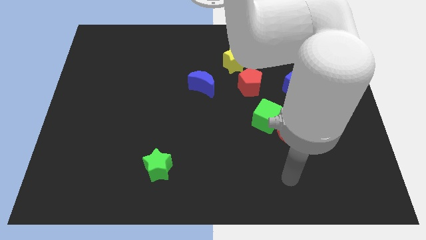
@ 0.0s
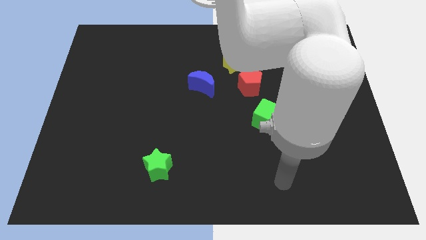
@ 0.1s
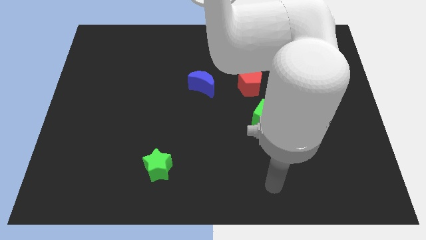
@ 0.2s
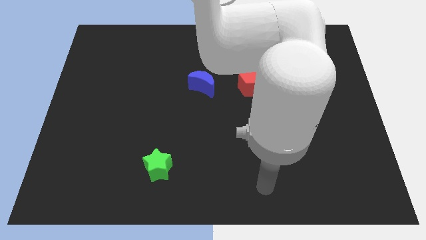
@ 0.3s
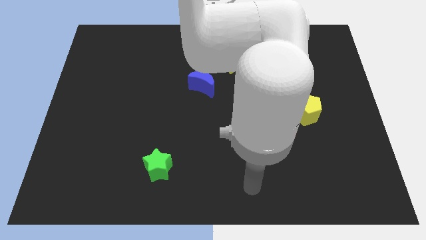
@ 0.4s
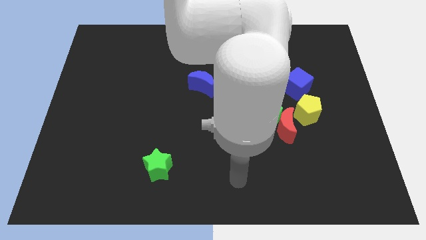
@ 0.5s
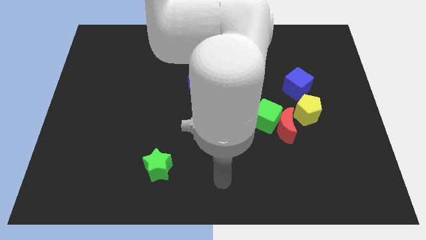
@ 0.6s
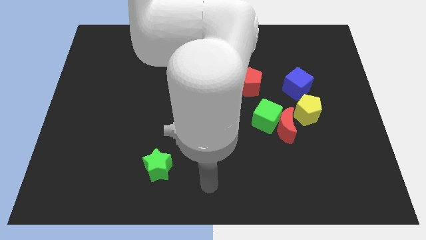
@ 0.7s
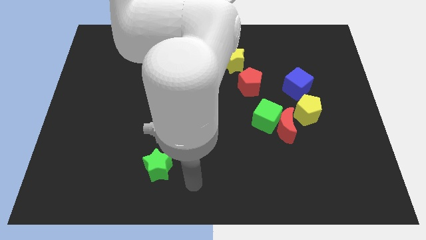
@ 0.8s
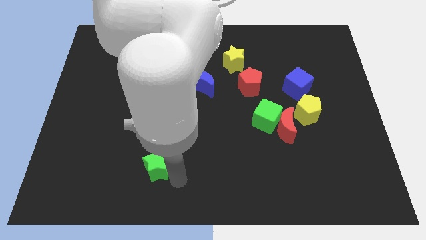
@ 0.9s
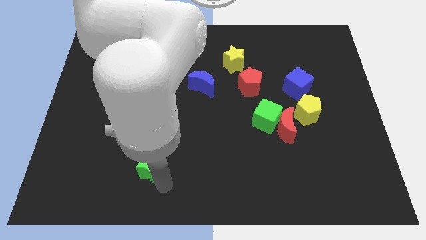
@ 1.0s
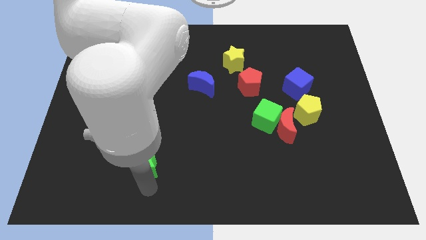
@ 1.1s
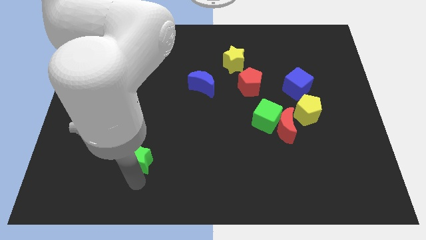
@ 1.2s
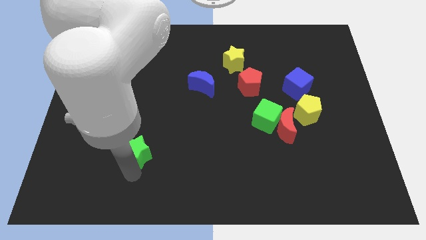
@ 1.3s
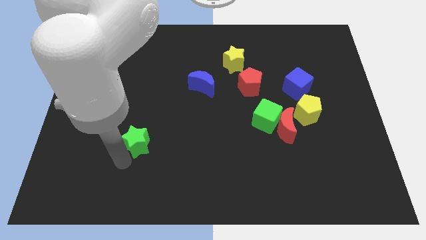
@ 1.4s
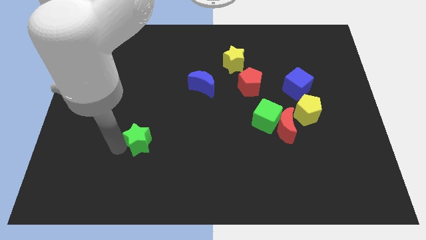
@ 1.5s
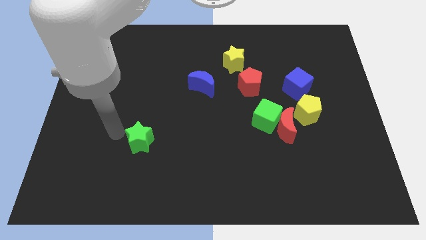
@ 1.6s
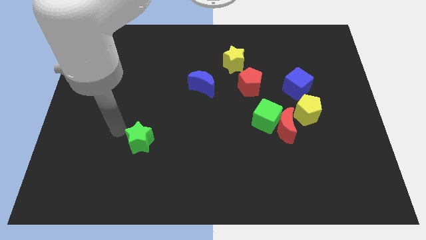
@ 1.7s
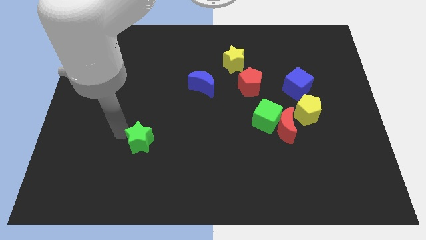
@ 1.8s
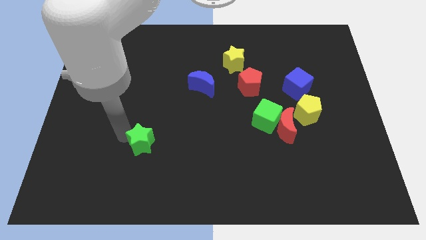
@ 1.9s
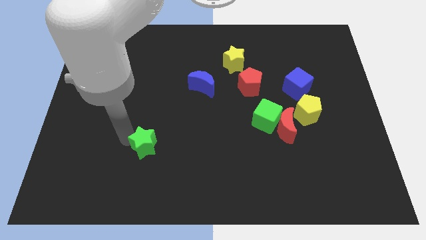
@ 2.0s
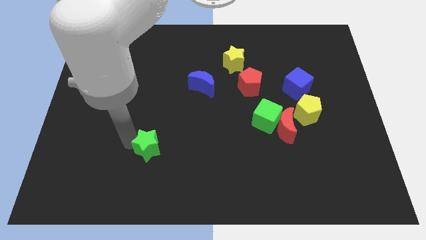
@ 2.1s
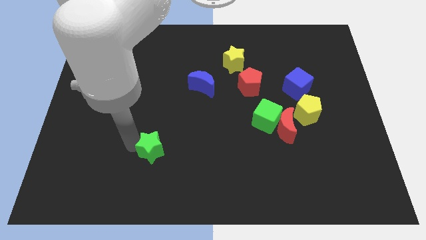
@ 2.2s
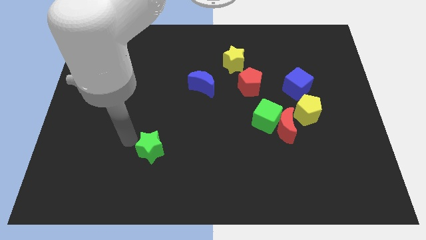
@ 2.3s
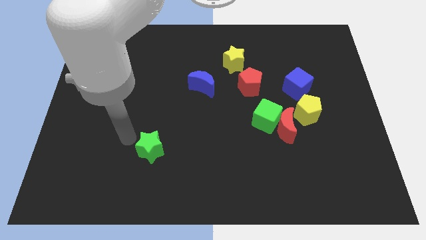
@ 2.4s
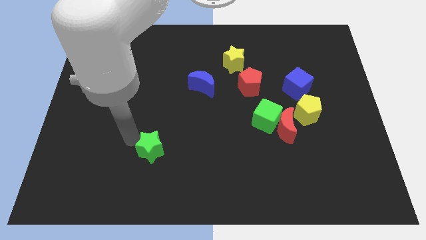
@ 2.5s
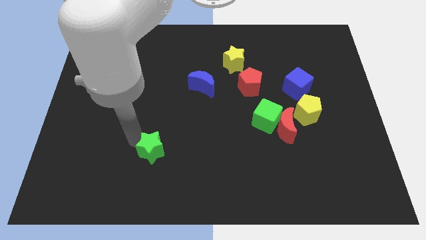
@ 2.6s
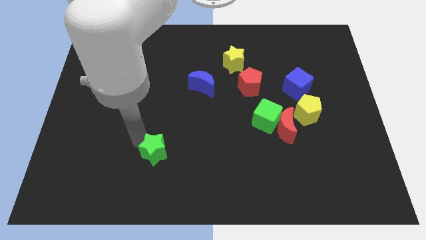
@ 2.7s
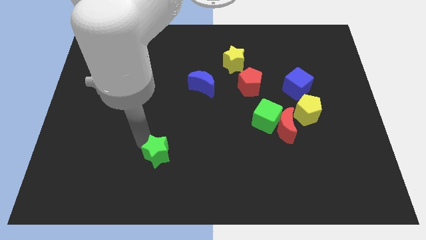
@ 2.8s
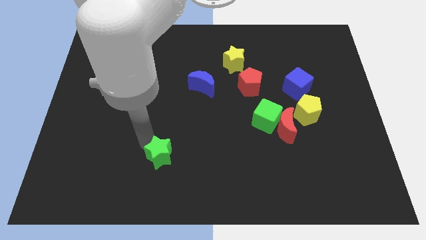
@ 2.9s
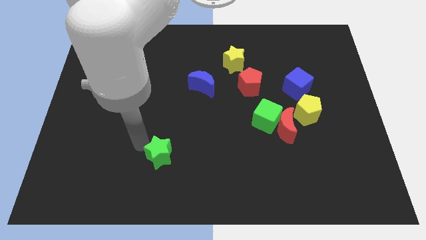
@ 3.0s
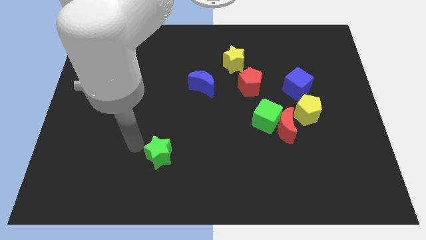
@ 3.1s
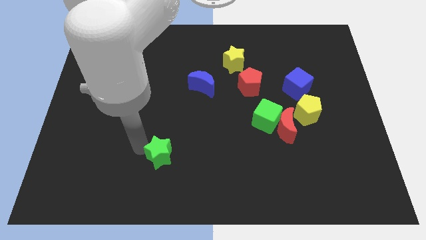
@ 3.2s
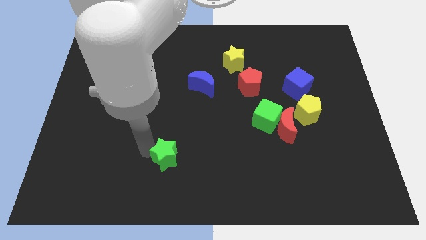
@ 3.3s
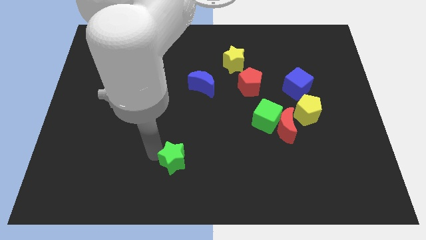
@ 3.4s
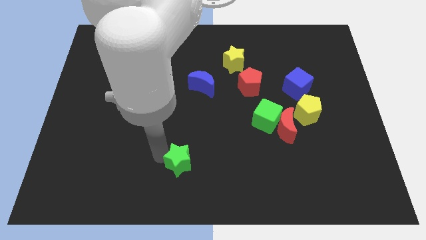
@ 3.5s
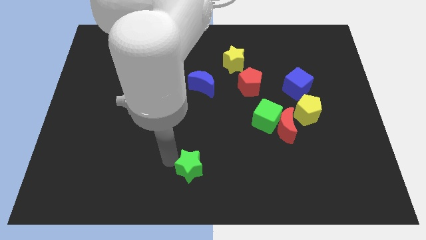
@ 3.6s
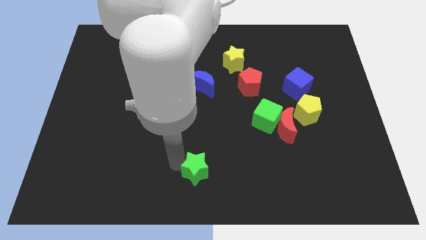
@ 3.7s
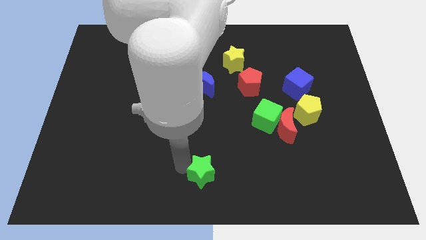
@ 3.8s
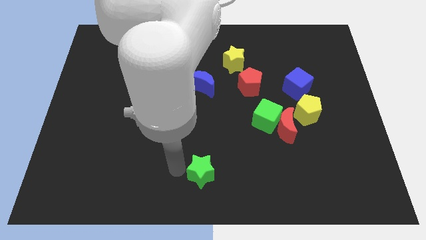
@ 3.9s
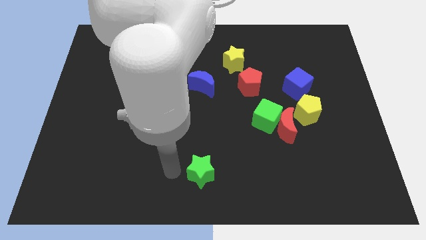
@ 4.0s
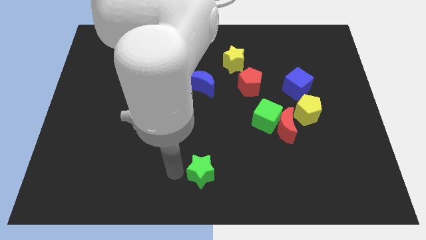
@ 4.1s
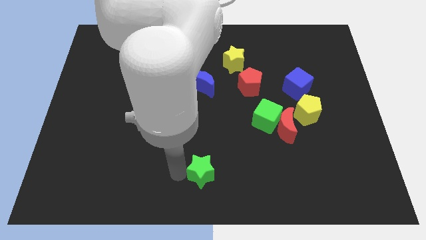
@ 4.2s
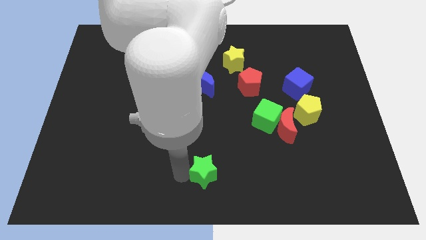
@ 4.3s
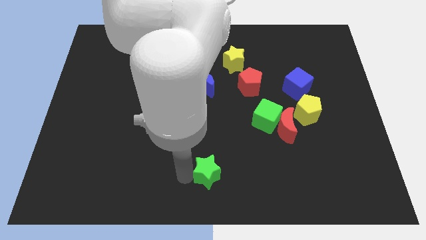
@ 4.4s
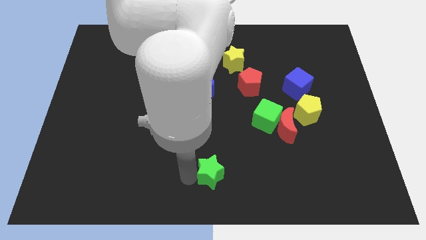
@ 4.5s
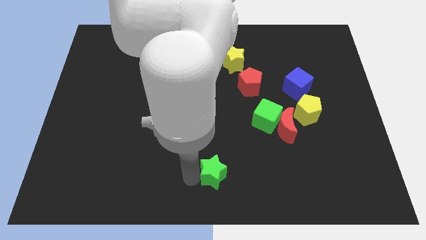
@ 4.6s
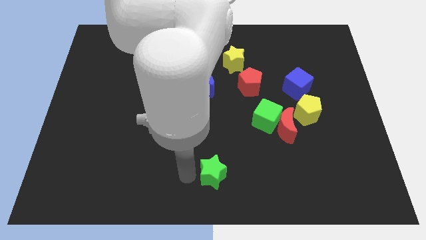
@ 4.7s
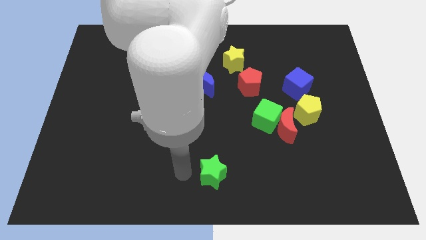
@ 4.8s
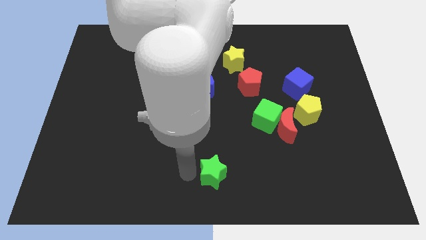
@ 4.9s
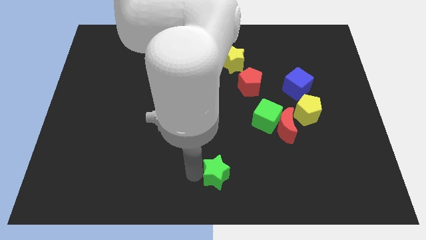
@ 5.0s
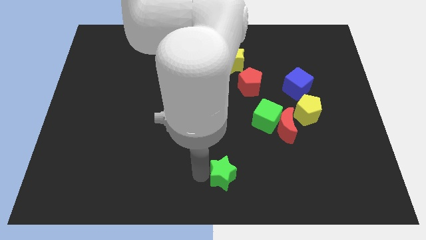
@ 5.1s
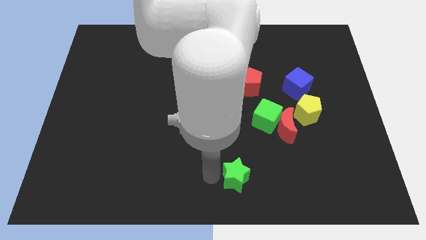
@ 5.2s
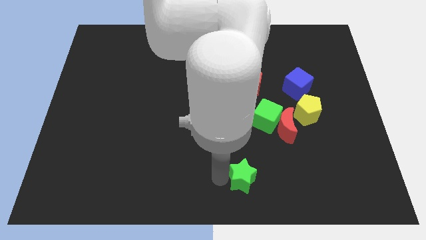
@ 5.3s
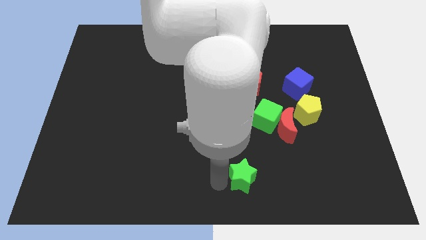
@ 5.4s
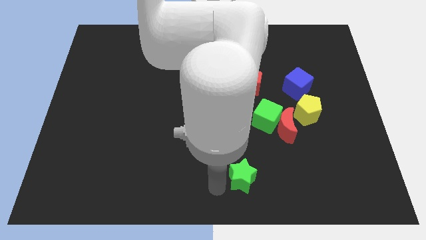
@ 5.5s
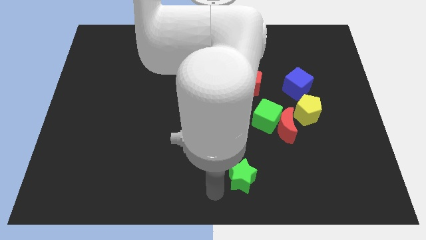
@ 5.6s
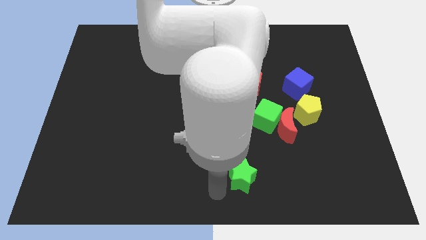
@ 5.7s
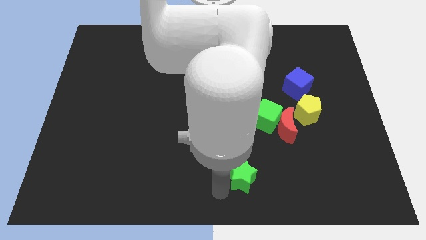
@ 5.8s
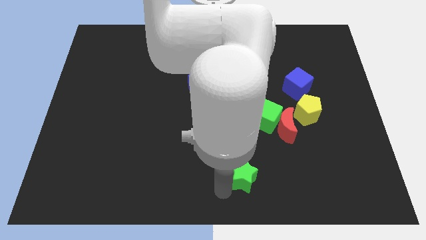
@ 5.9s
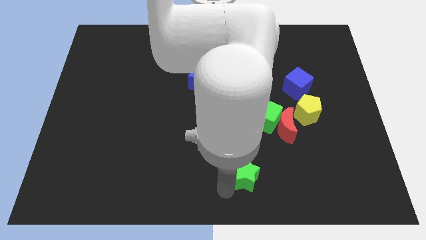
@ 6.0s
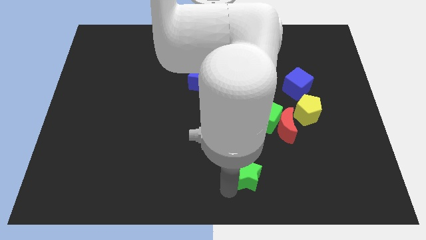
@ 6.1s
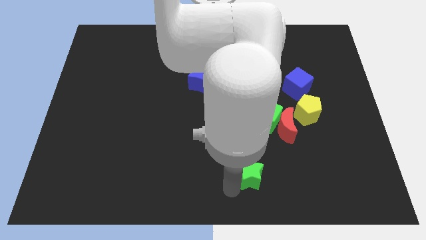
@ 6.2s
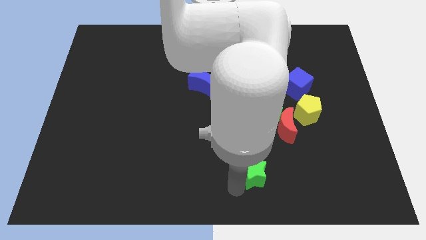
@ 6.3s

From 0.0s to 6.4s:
slide the green star right

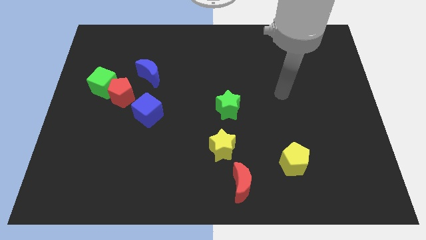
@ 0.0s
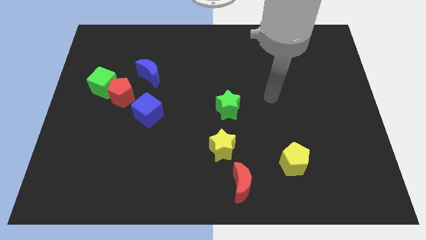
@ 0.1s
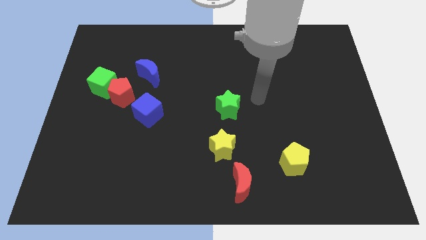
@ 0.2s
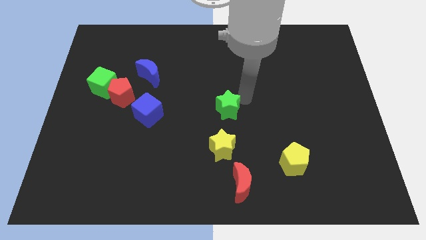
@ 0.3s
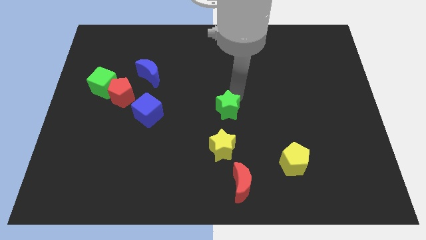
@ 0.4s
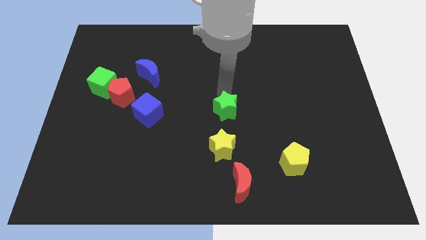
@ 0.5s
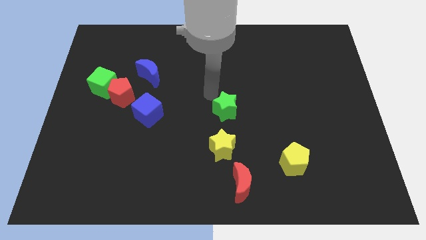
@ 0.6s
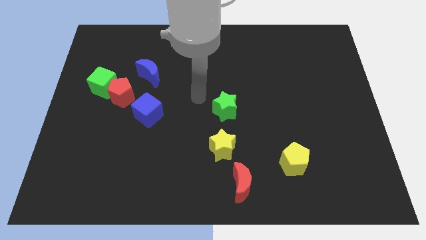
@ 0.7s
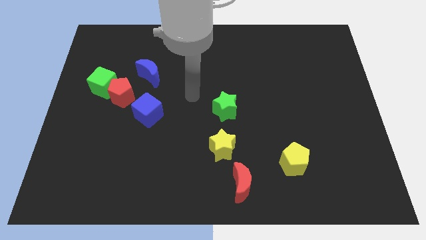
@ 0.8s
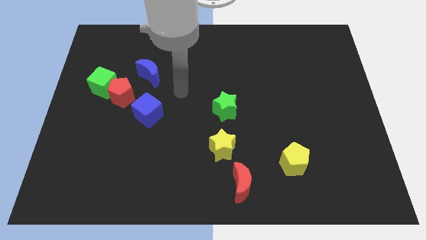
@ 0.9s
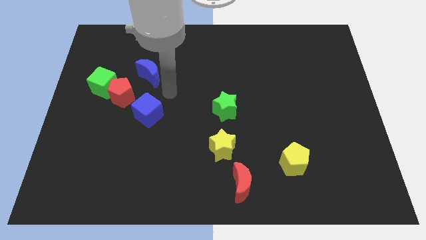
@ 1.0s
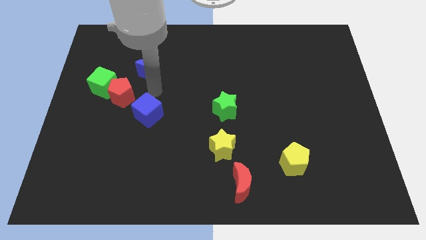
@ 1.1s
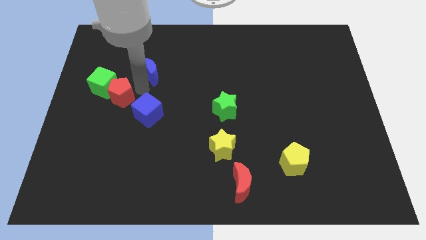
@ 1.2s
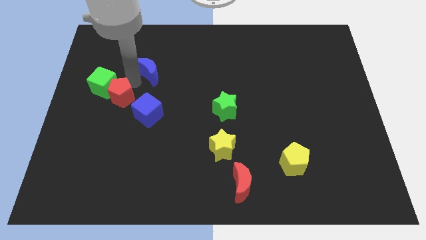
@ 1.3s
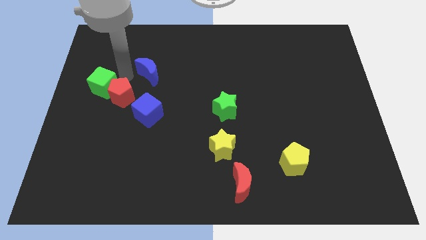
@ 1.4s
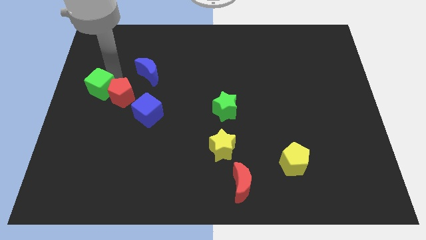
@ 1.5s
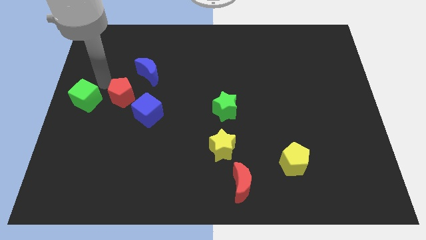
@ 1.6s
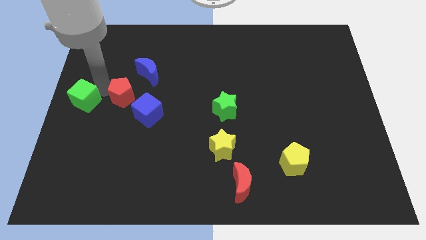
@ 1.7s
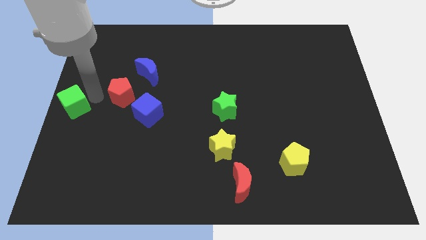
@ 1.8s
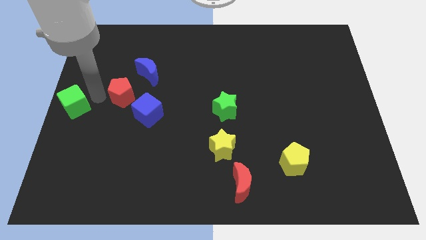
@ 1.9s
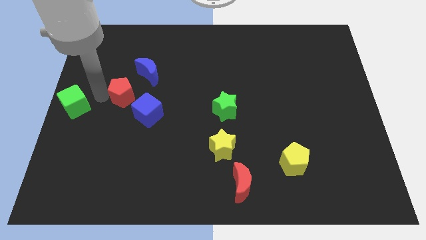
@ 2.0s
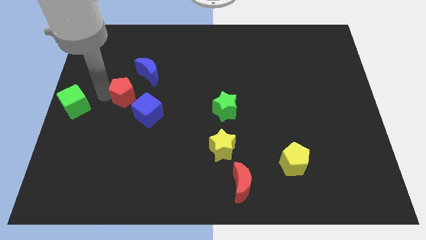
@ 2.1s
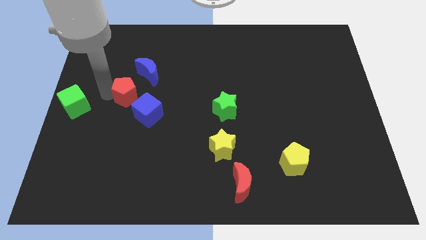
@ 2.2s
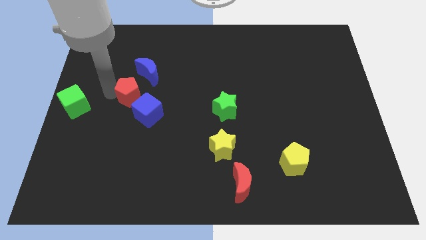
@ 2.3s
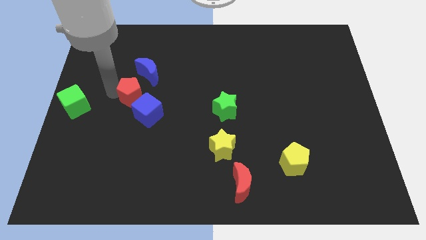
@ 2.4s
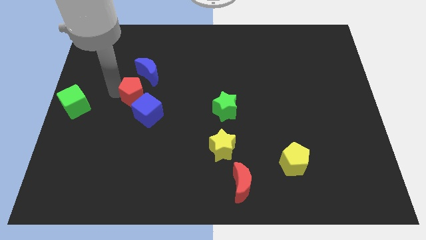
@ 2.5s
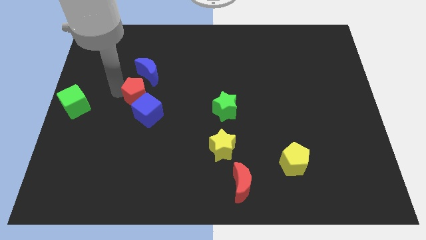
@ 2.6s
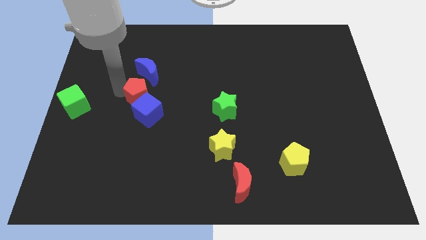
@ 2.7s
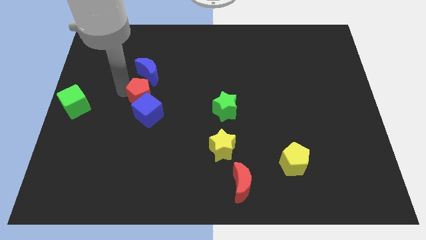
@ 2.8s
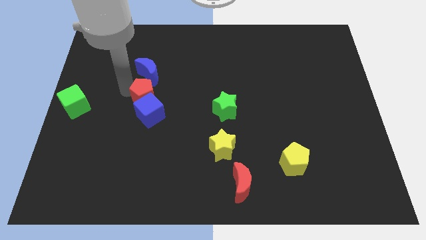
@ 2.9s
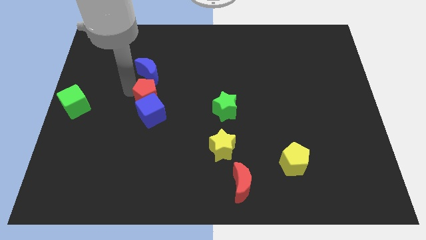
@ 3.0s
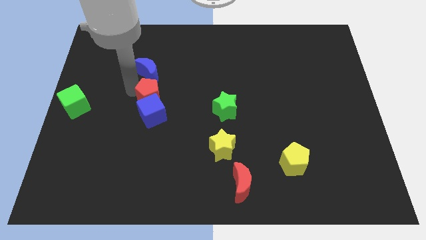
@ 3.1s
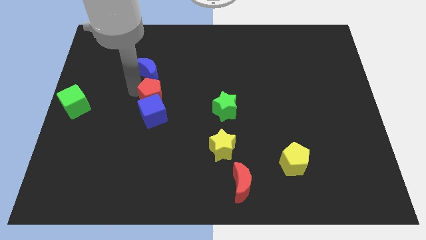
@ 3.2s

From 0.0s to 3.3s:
slide the red pentagon right a bit
